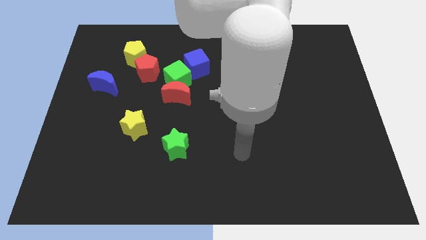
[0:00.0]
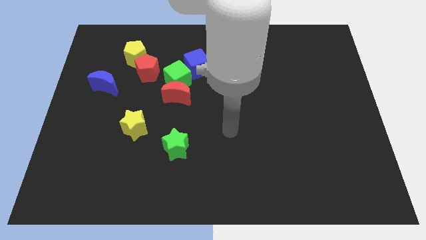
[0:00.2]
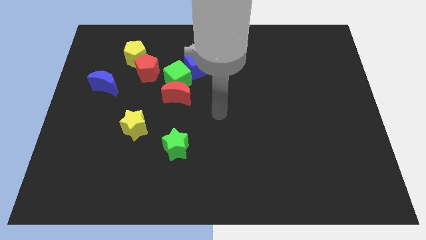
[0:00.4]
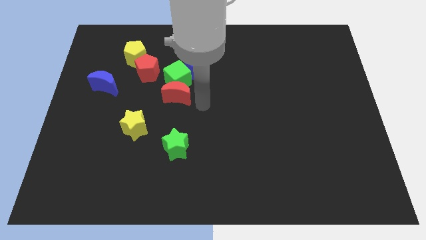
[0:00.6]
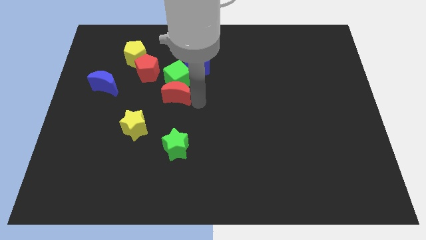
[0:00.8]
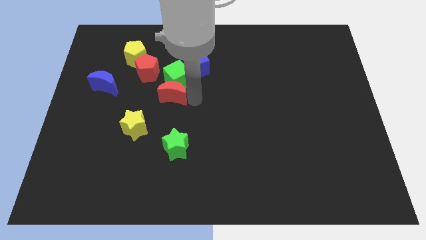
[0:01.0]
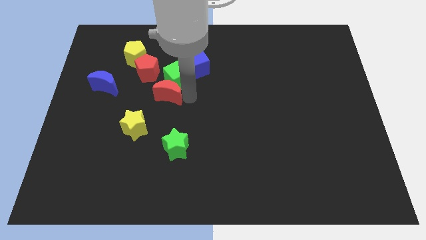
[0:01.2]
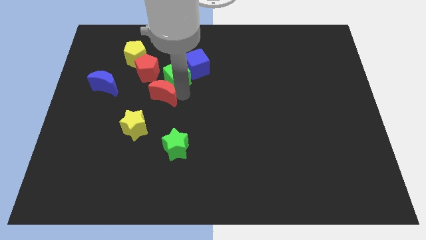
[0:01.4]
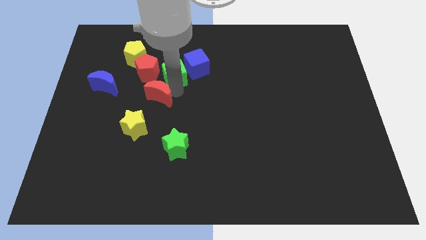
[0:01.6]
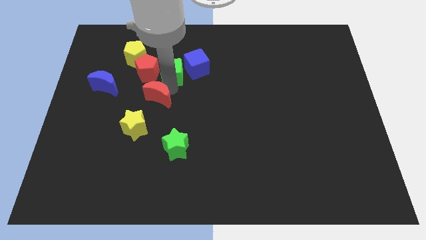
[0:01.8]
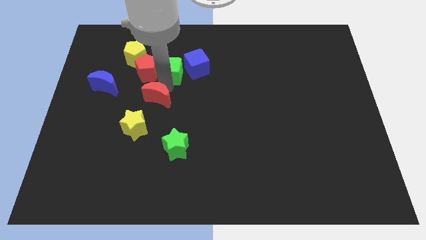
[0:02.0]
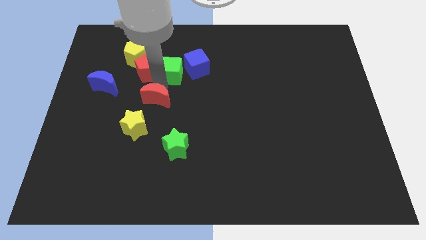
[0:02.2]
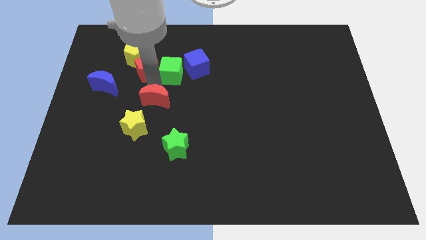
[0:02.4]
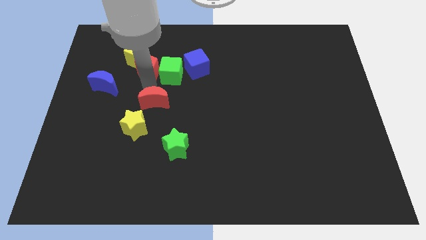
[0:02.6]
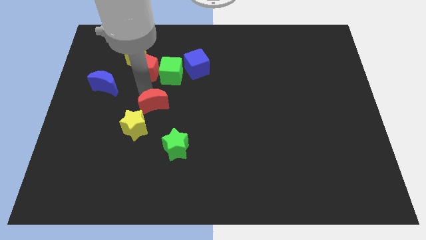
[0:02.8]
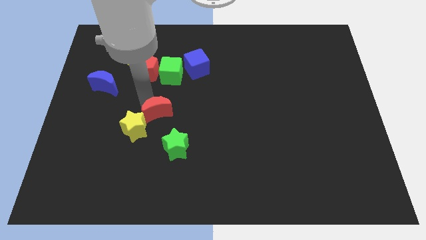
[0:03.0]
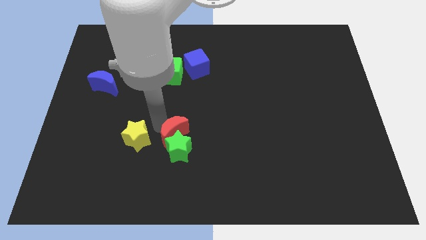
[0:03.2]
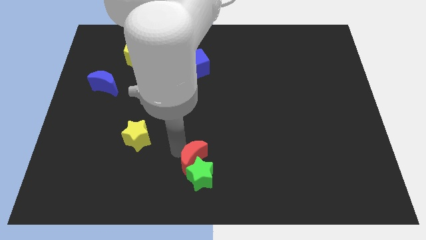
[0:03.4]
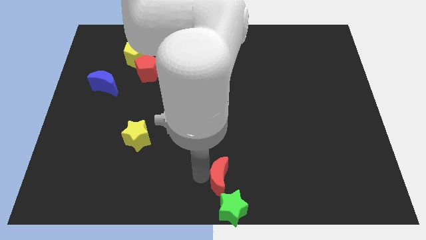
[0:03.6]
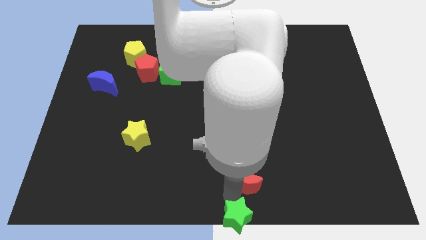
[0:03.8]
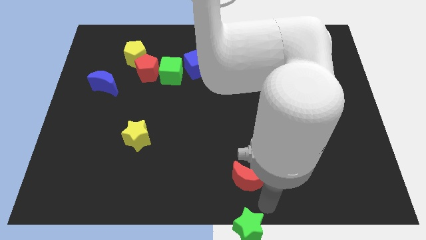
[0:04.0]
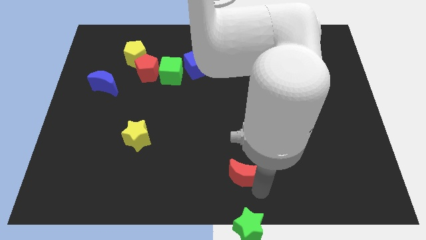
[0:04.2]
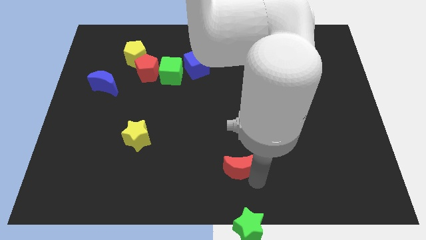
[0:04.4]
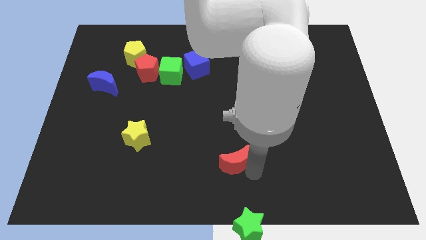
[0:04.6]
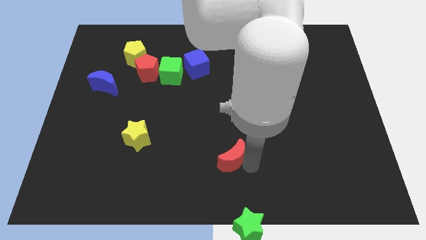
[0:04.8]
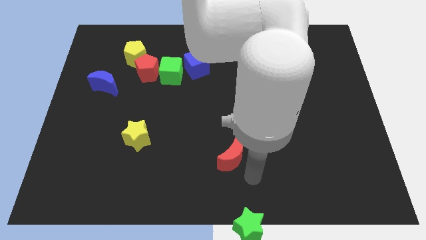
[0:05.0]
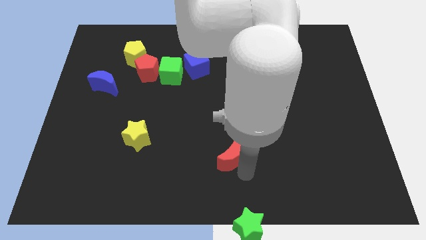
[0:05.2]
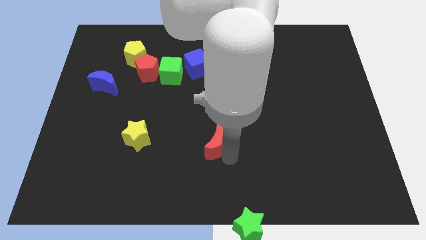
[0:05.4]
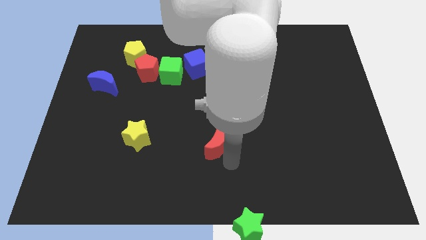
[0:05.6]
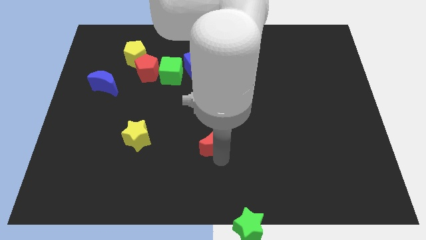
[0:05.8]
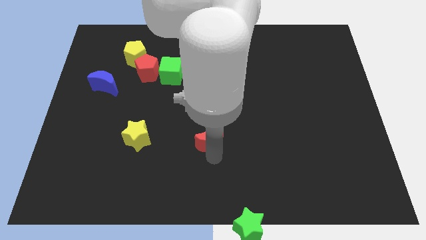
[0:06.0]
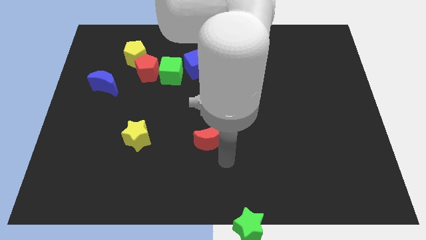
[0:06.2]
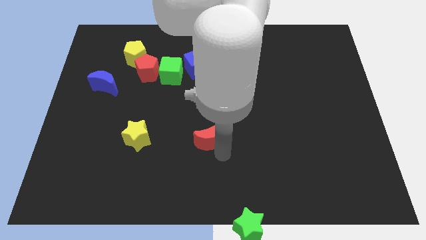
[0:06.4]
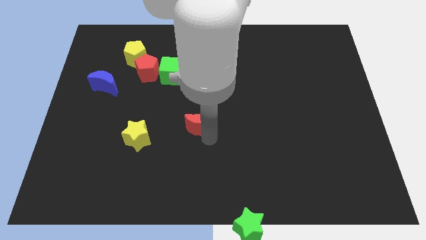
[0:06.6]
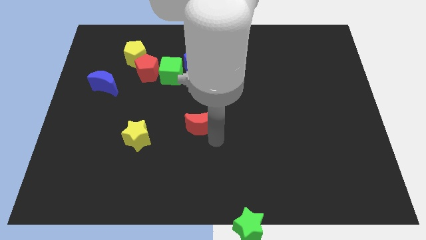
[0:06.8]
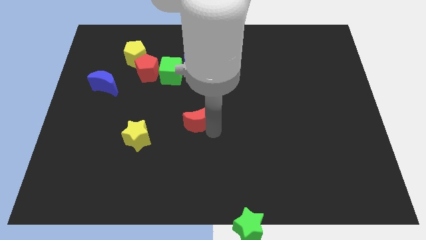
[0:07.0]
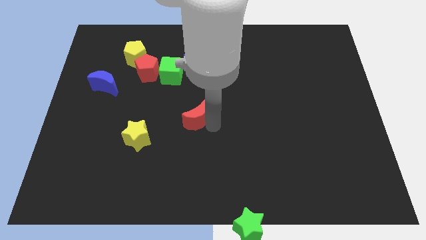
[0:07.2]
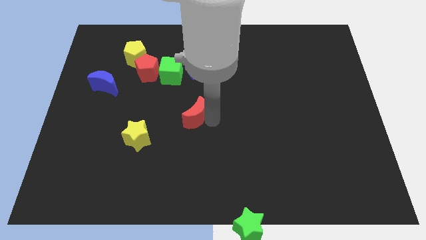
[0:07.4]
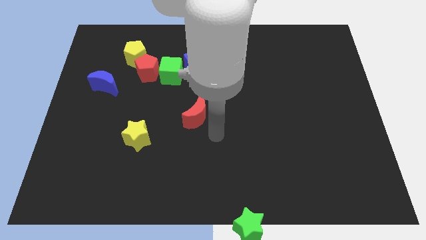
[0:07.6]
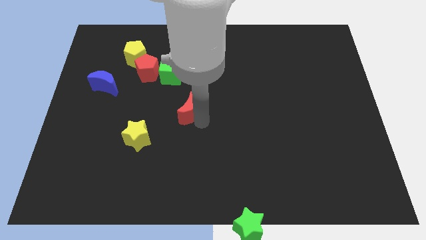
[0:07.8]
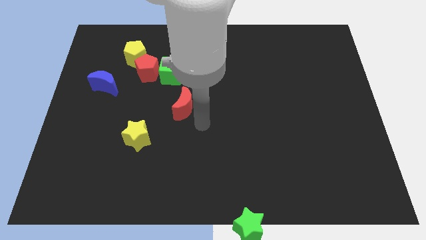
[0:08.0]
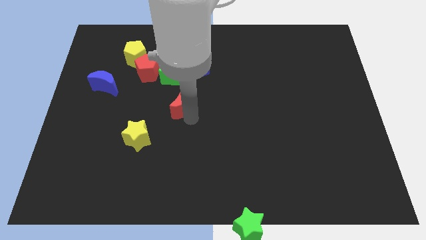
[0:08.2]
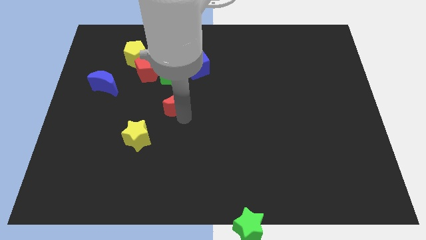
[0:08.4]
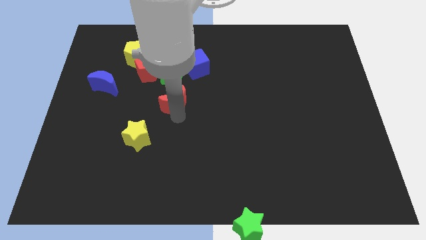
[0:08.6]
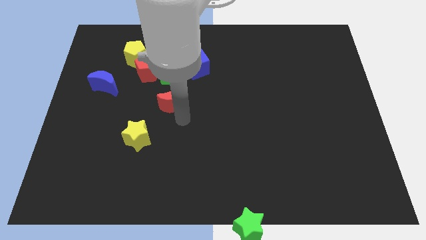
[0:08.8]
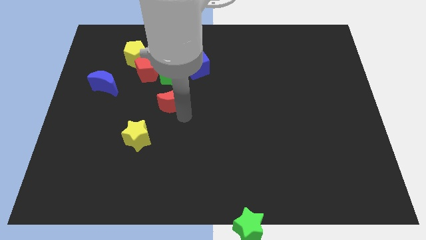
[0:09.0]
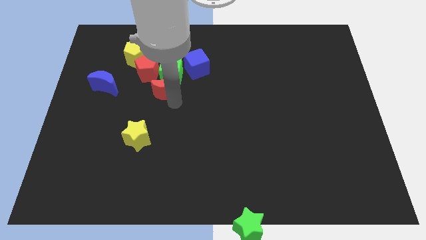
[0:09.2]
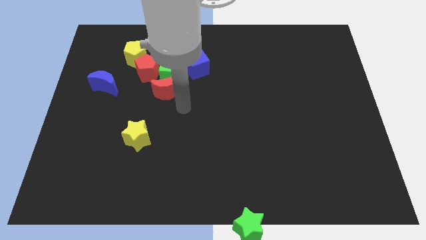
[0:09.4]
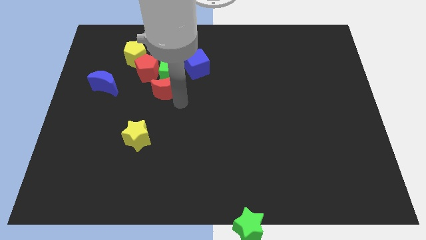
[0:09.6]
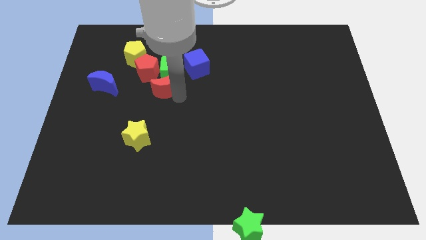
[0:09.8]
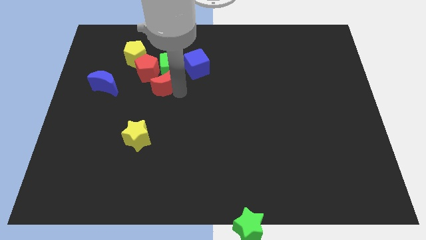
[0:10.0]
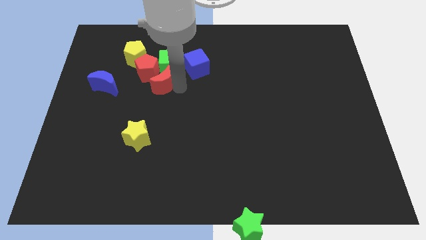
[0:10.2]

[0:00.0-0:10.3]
slide the red moon towards the red pentagon

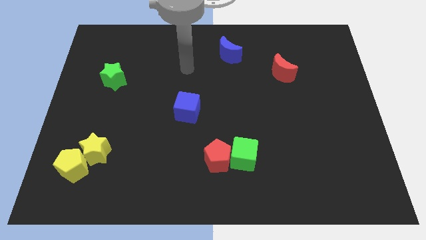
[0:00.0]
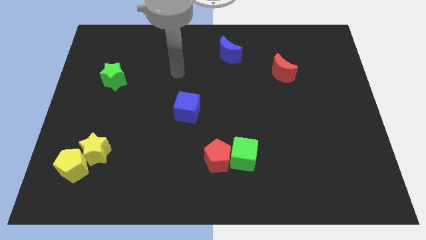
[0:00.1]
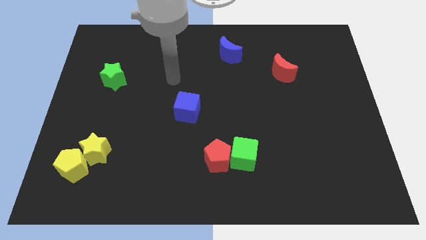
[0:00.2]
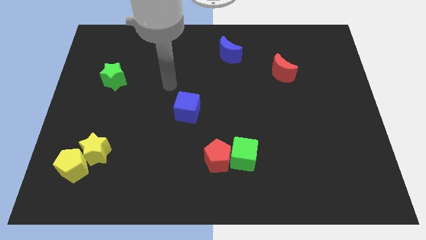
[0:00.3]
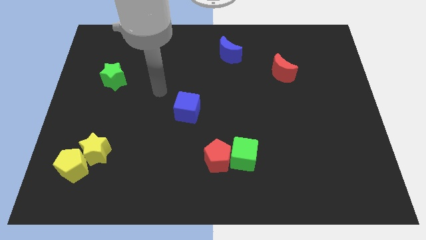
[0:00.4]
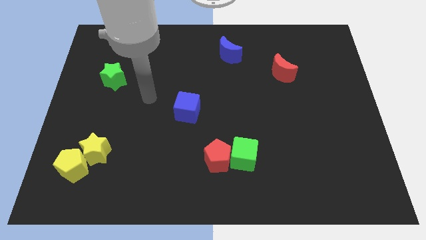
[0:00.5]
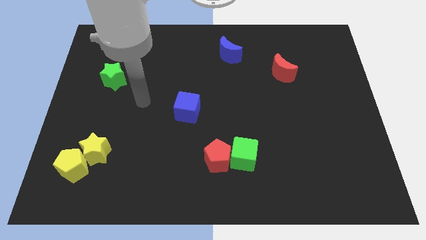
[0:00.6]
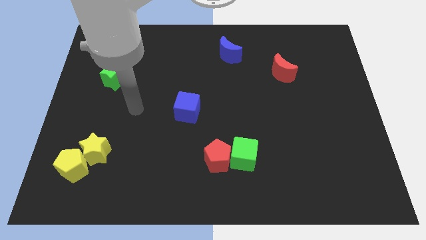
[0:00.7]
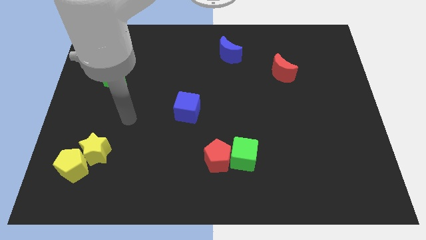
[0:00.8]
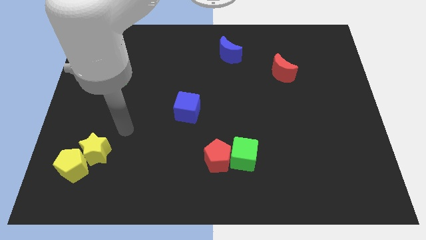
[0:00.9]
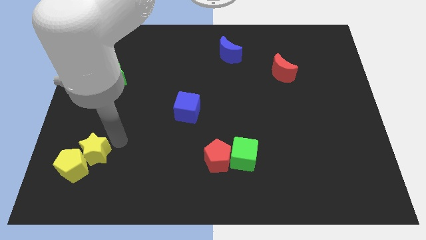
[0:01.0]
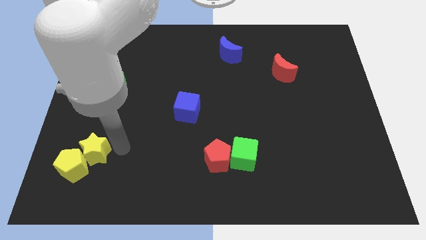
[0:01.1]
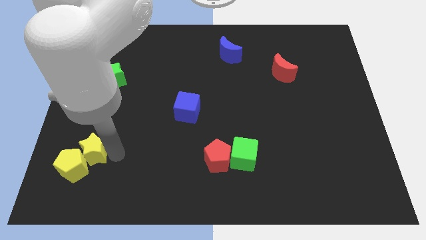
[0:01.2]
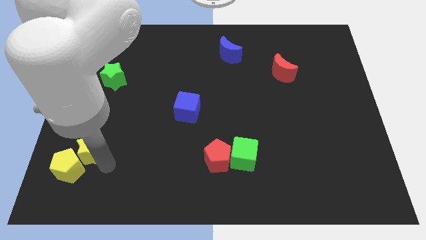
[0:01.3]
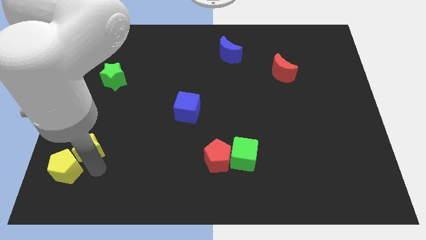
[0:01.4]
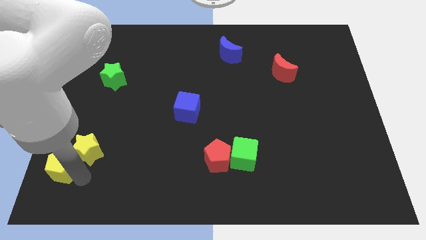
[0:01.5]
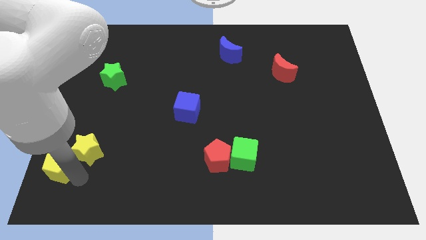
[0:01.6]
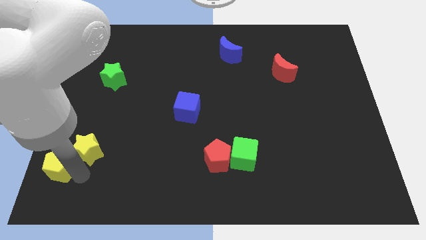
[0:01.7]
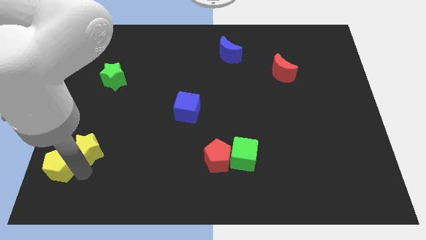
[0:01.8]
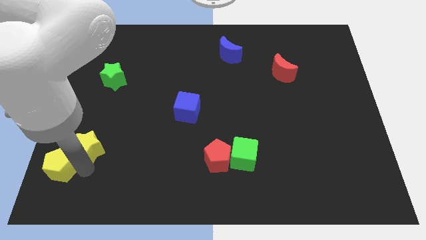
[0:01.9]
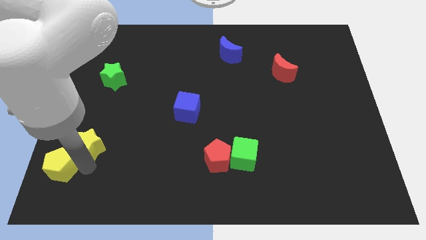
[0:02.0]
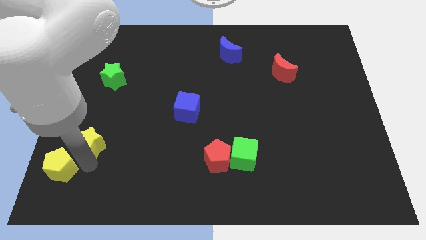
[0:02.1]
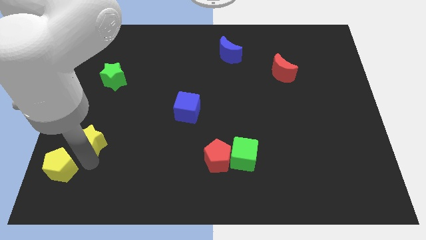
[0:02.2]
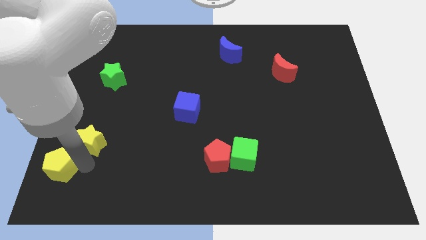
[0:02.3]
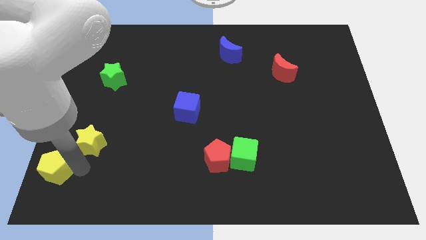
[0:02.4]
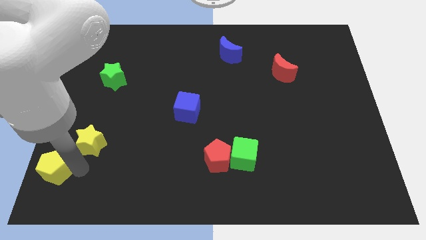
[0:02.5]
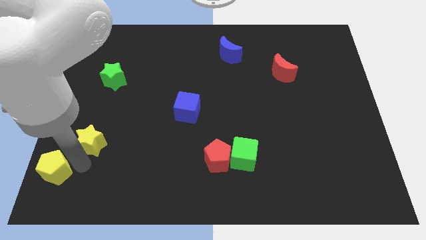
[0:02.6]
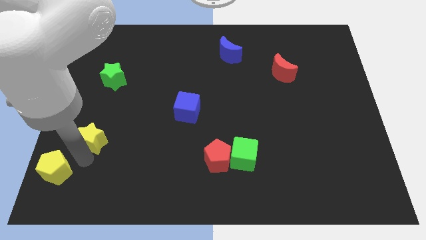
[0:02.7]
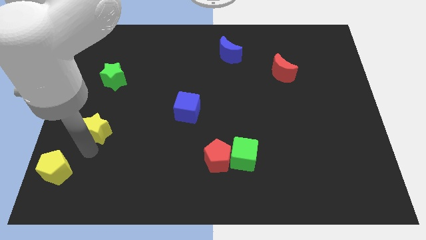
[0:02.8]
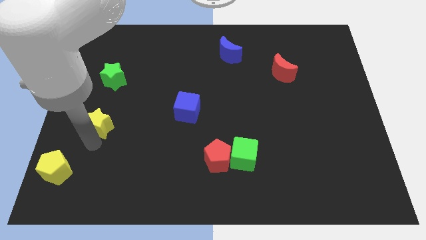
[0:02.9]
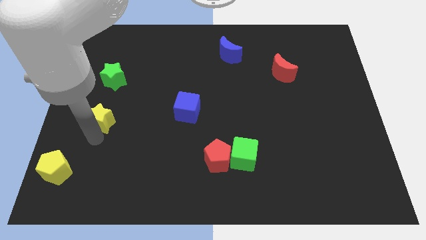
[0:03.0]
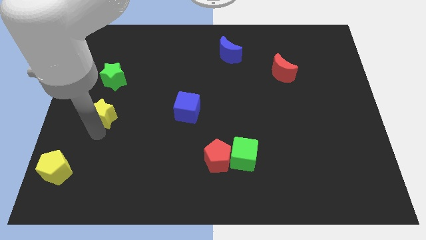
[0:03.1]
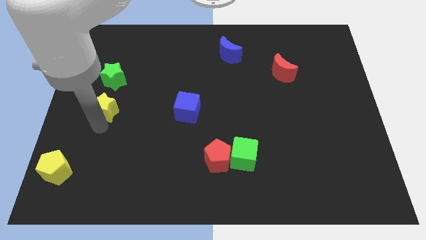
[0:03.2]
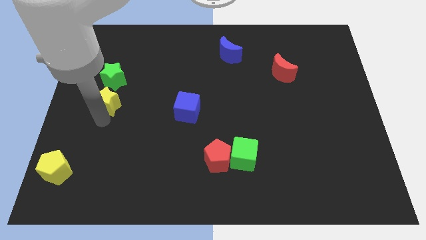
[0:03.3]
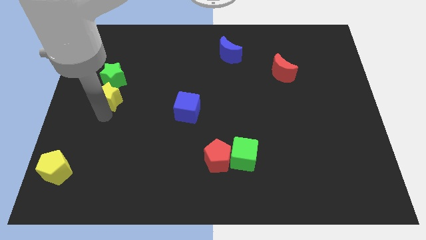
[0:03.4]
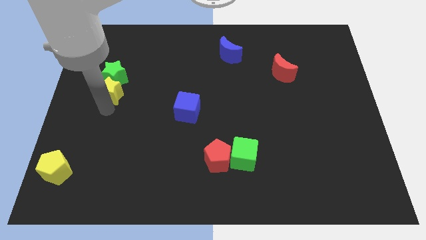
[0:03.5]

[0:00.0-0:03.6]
push the yellow star towards the green star
